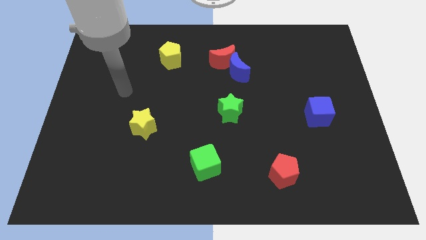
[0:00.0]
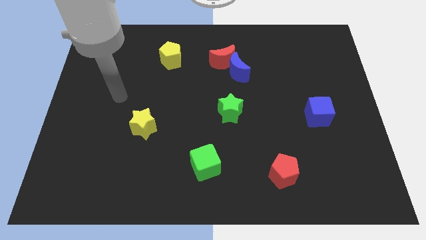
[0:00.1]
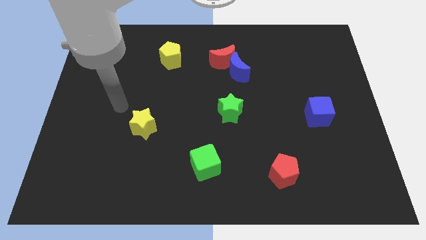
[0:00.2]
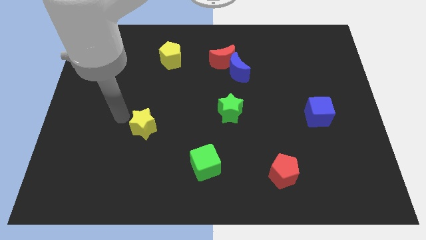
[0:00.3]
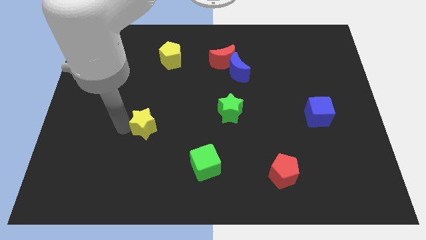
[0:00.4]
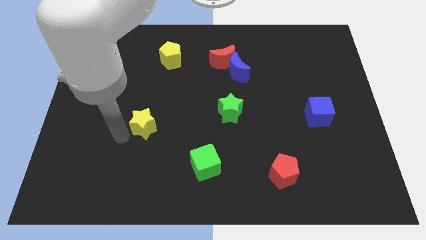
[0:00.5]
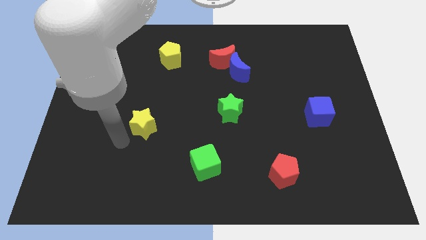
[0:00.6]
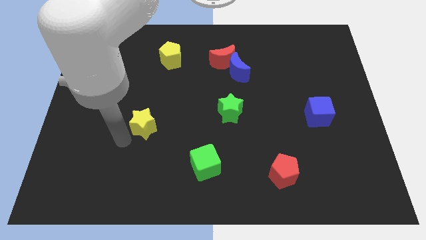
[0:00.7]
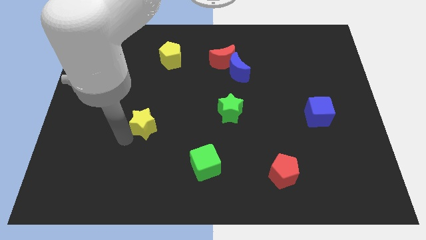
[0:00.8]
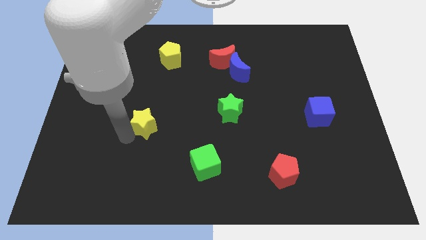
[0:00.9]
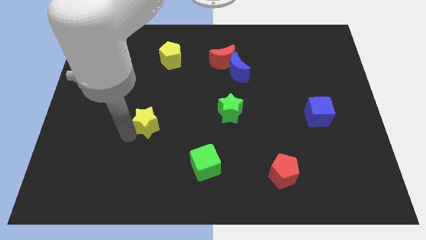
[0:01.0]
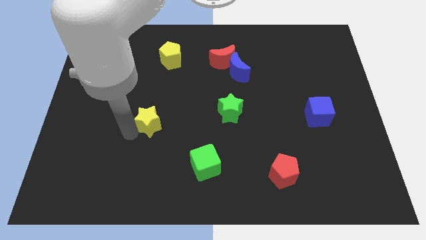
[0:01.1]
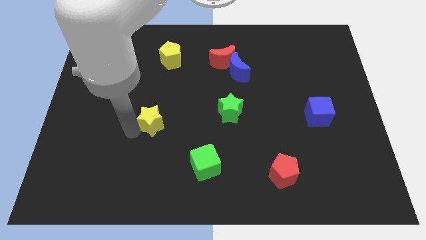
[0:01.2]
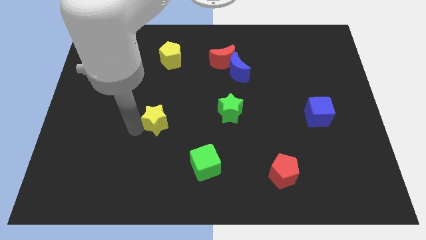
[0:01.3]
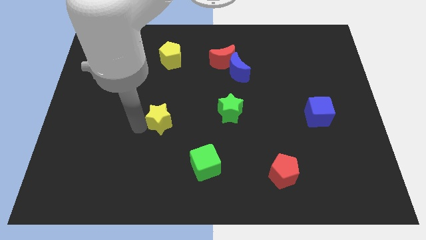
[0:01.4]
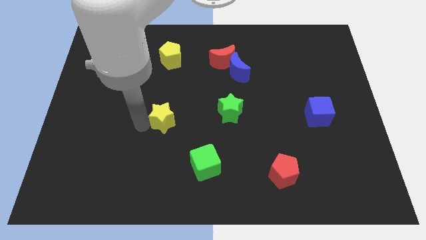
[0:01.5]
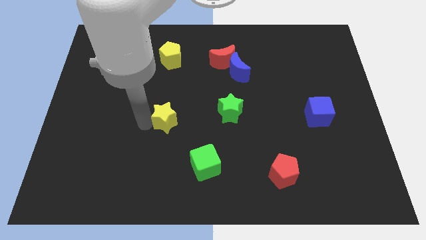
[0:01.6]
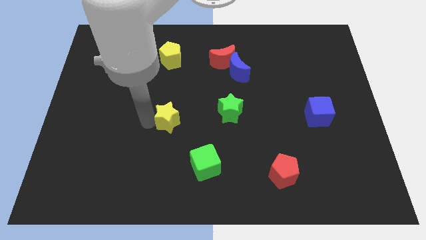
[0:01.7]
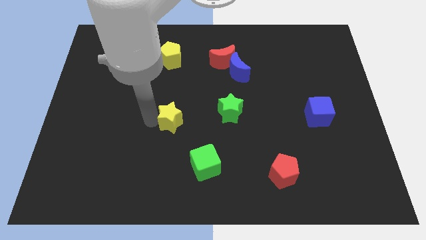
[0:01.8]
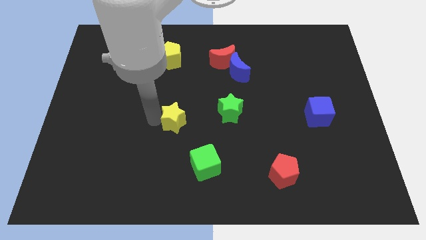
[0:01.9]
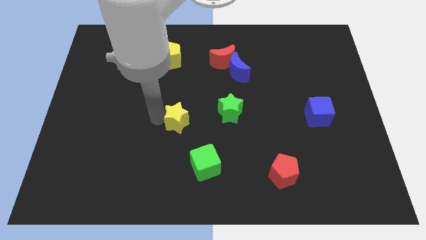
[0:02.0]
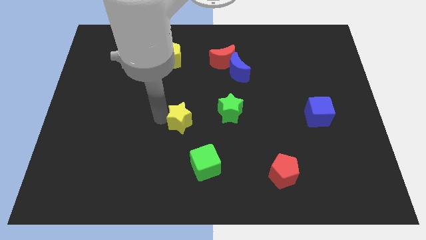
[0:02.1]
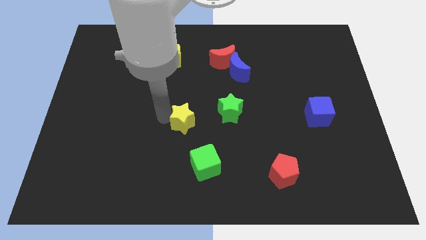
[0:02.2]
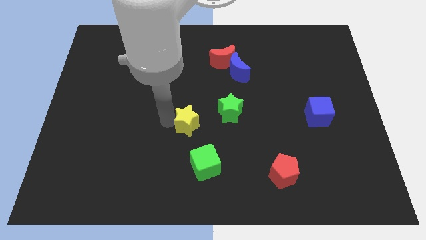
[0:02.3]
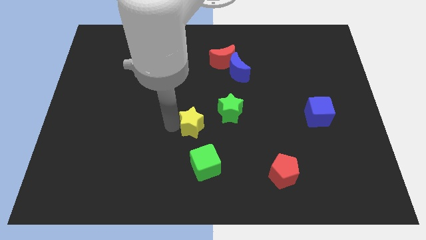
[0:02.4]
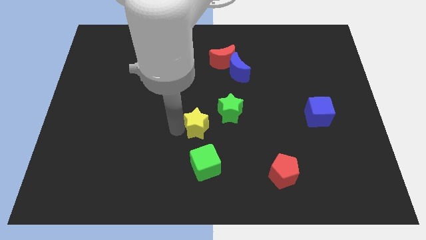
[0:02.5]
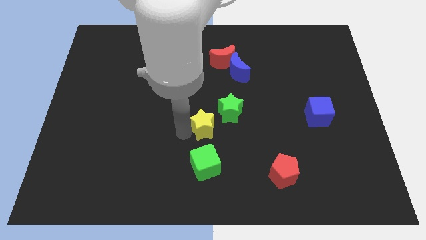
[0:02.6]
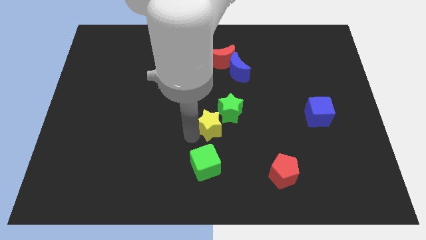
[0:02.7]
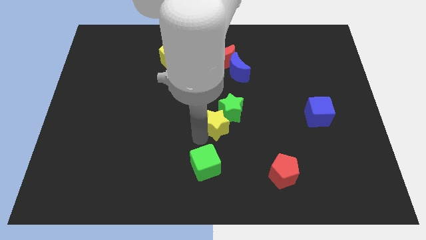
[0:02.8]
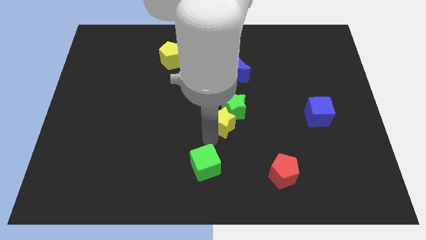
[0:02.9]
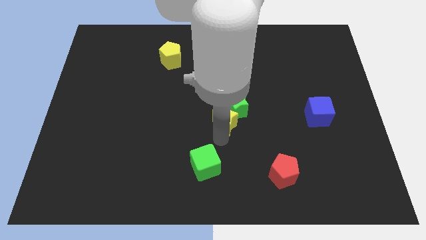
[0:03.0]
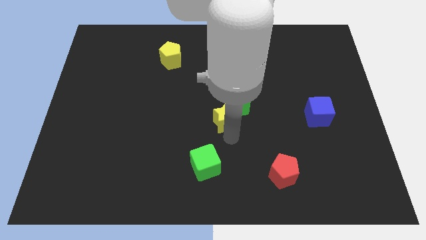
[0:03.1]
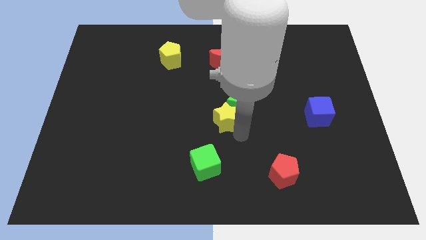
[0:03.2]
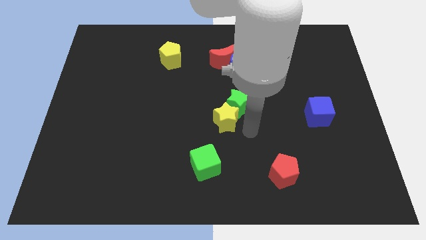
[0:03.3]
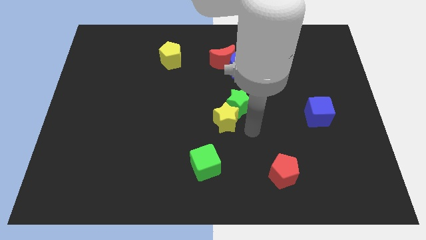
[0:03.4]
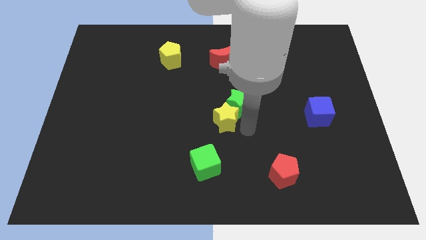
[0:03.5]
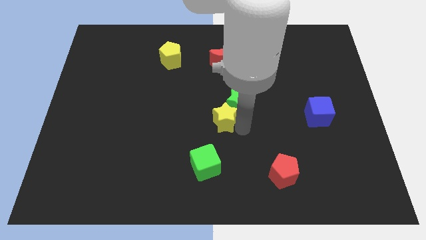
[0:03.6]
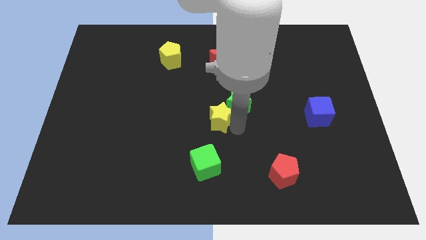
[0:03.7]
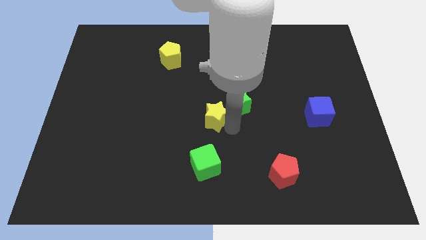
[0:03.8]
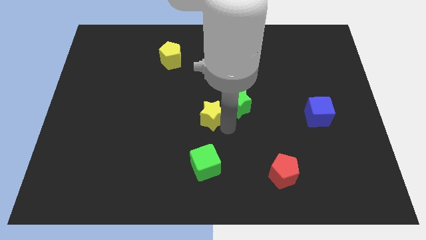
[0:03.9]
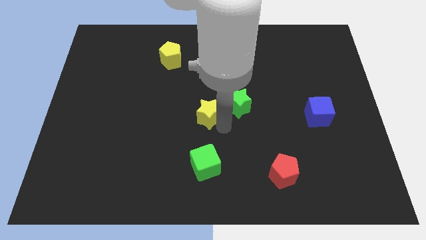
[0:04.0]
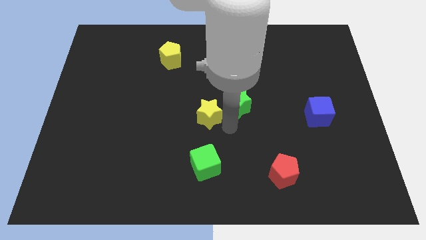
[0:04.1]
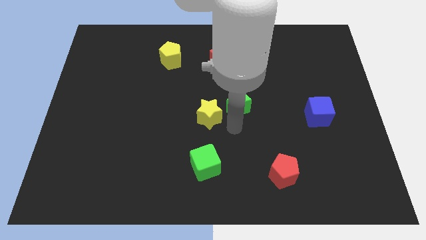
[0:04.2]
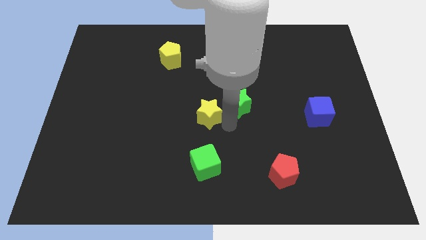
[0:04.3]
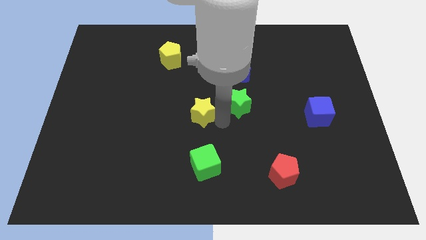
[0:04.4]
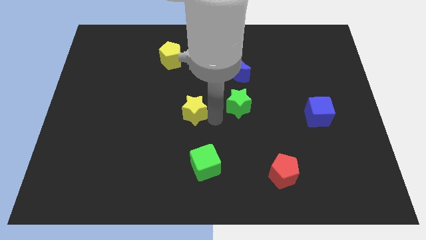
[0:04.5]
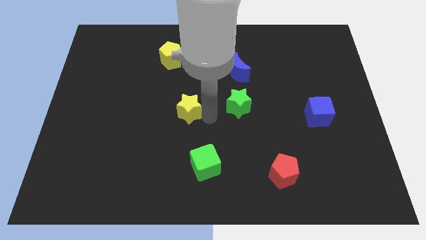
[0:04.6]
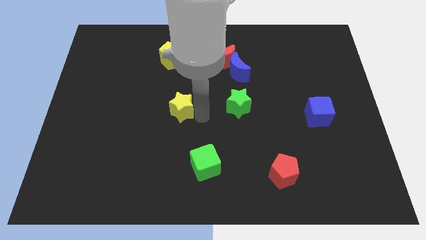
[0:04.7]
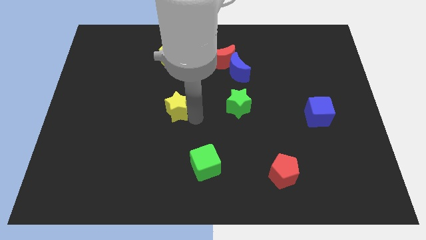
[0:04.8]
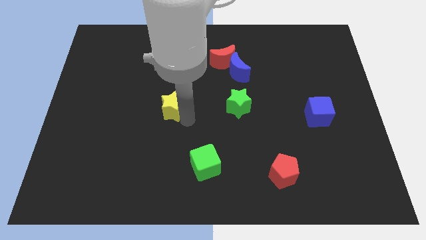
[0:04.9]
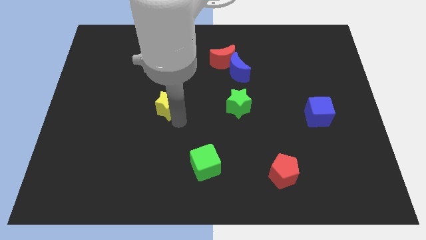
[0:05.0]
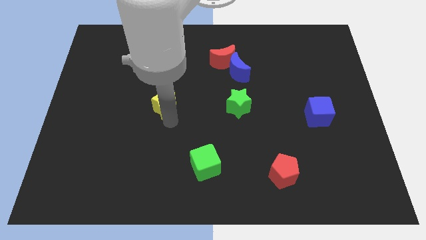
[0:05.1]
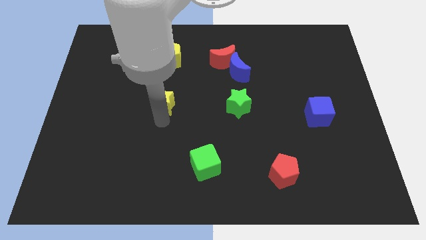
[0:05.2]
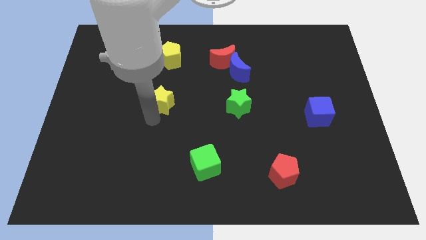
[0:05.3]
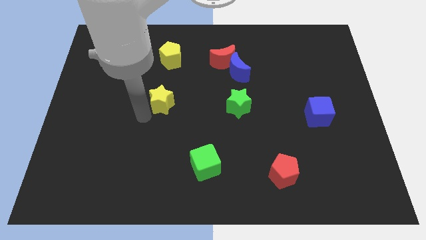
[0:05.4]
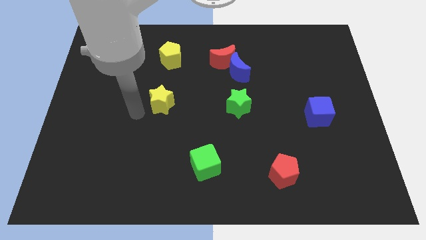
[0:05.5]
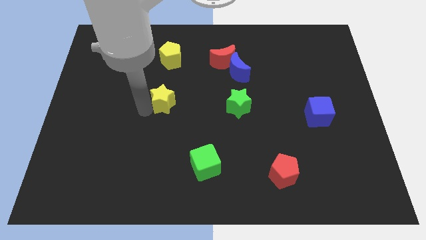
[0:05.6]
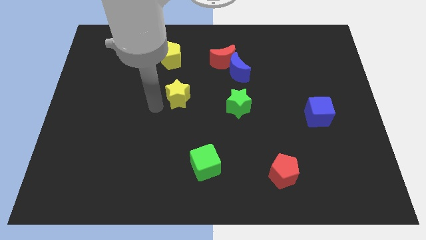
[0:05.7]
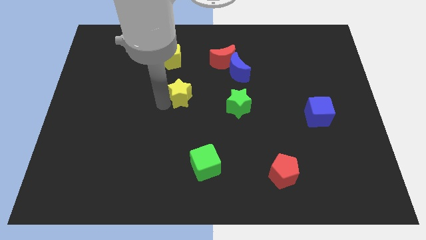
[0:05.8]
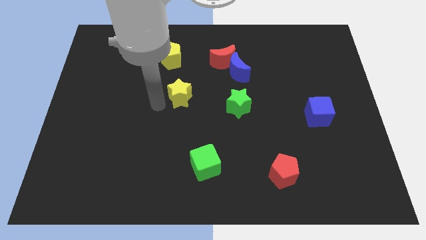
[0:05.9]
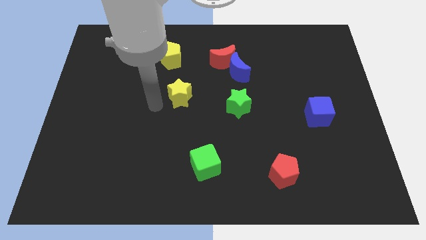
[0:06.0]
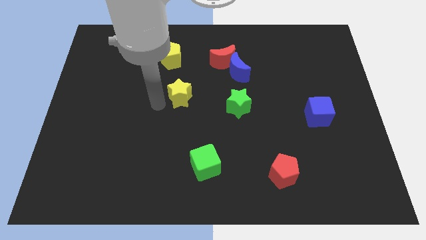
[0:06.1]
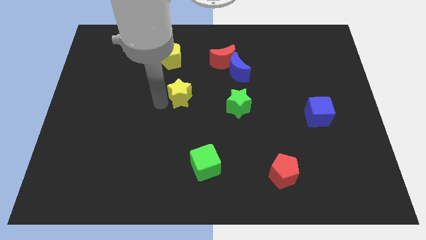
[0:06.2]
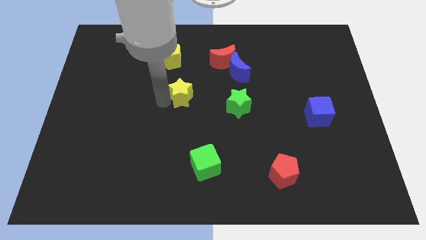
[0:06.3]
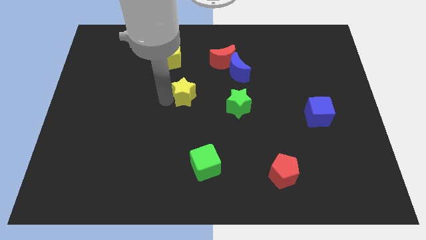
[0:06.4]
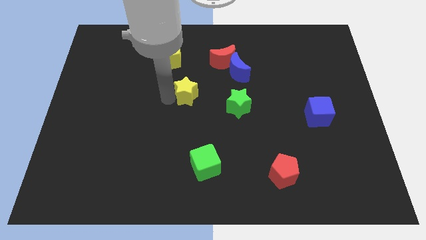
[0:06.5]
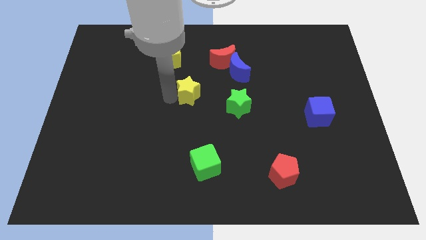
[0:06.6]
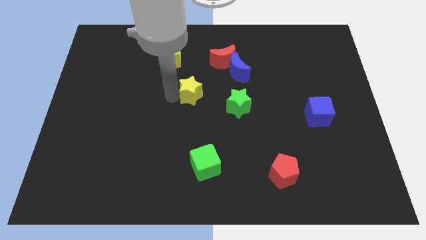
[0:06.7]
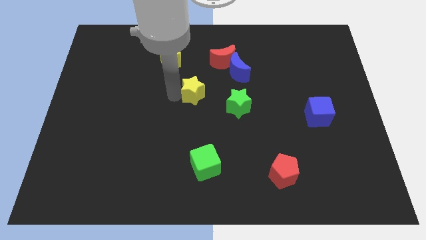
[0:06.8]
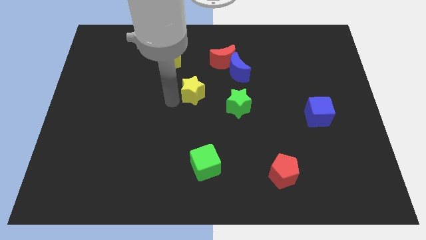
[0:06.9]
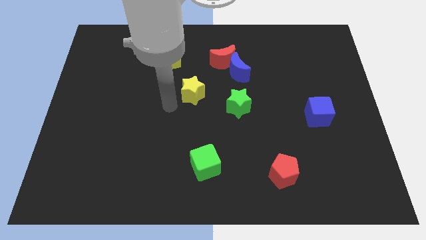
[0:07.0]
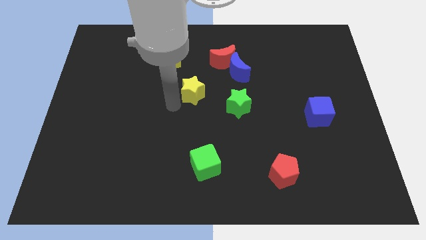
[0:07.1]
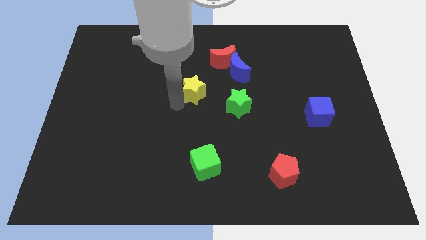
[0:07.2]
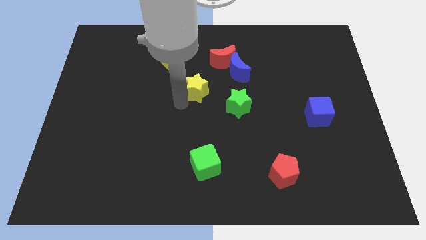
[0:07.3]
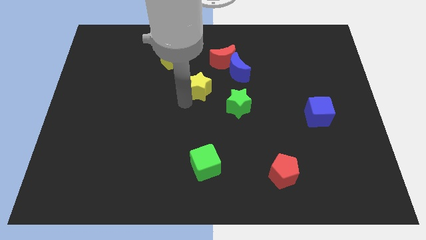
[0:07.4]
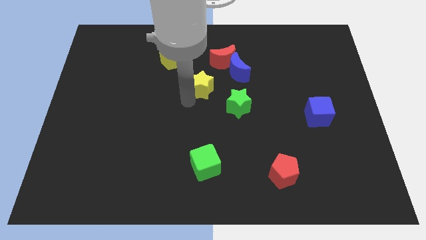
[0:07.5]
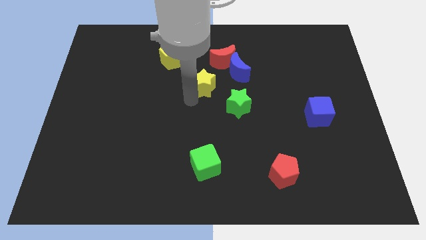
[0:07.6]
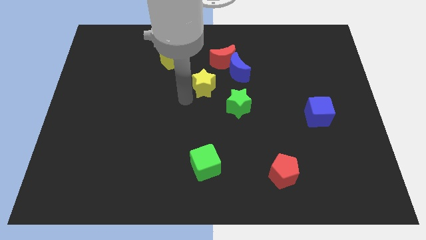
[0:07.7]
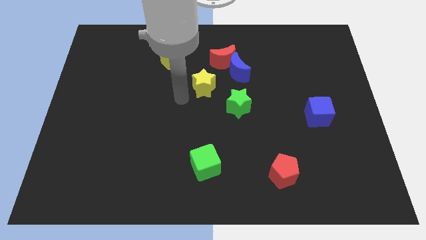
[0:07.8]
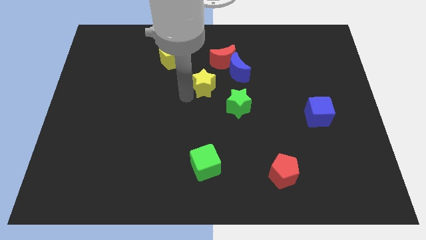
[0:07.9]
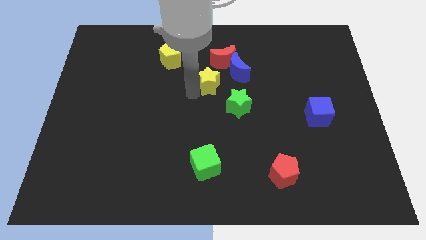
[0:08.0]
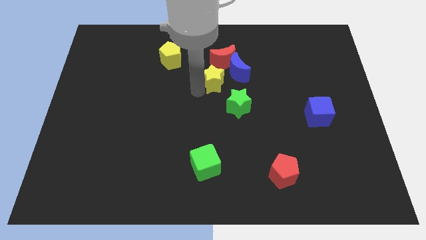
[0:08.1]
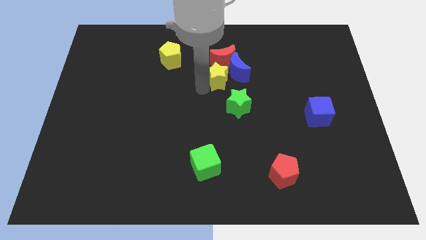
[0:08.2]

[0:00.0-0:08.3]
put the yellow star next to the blue moon
